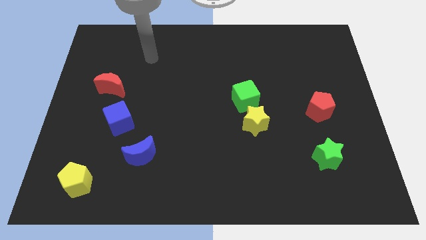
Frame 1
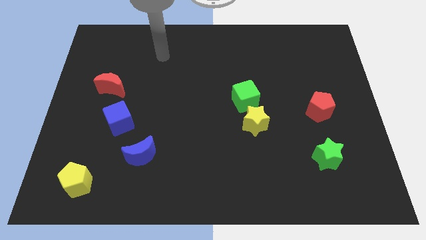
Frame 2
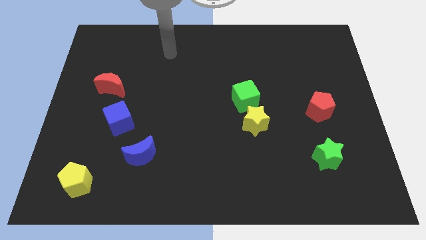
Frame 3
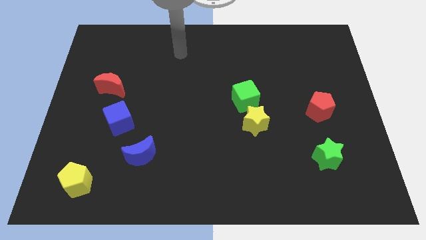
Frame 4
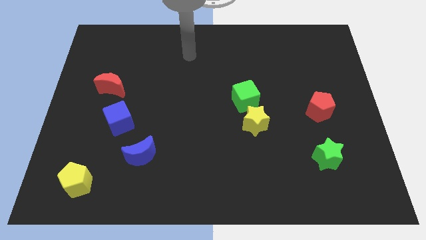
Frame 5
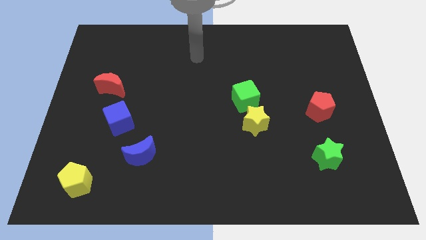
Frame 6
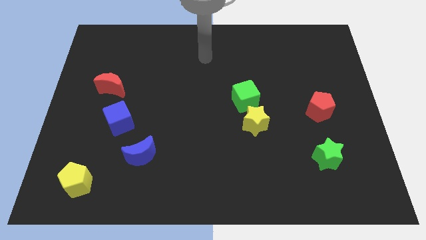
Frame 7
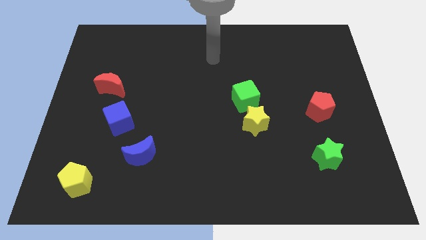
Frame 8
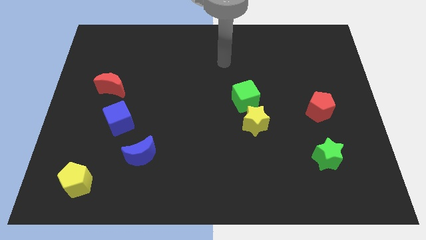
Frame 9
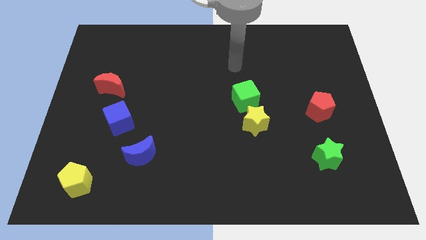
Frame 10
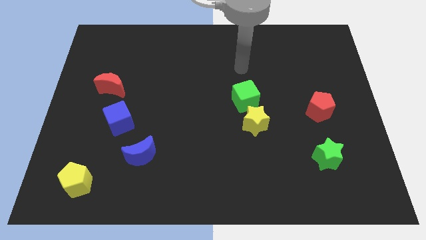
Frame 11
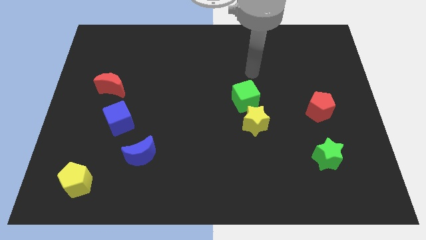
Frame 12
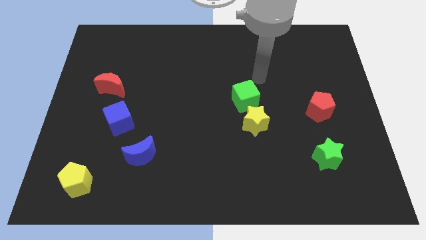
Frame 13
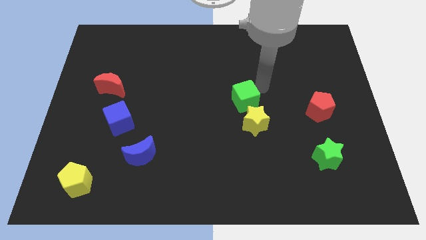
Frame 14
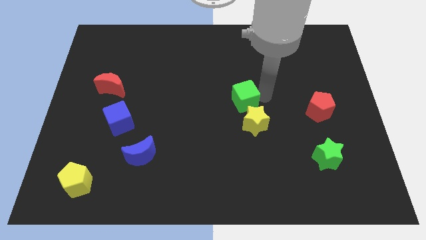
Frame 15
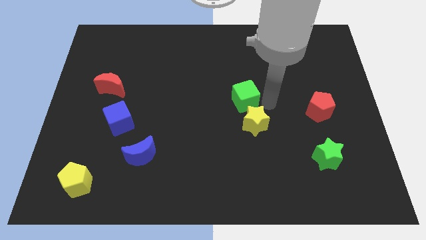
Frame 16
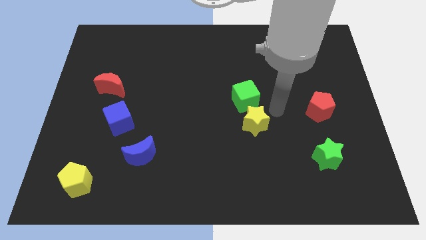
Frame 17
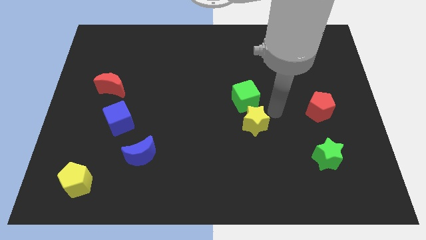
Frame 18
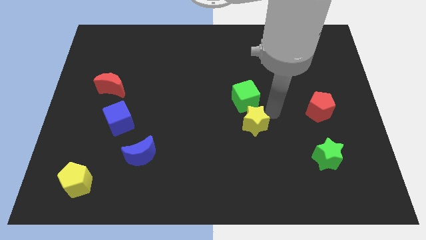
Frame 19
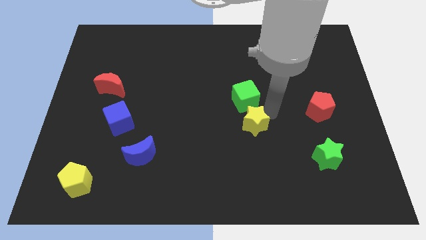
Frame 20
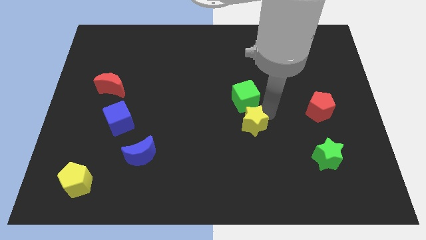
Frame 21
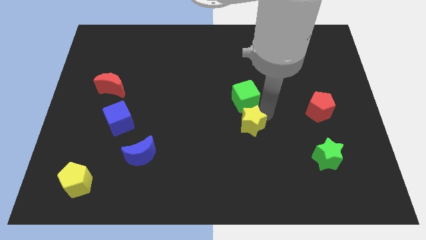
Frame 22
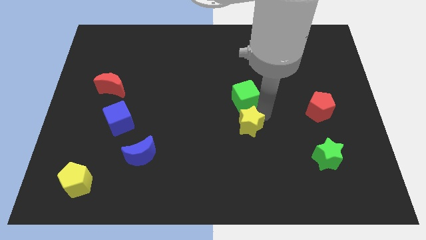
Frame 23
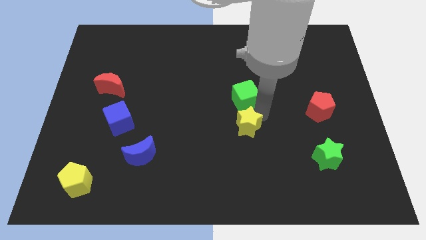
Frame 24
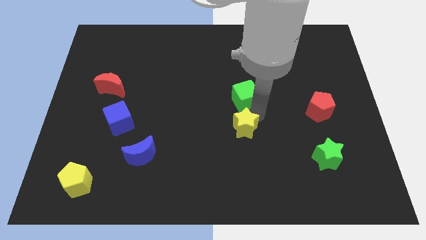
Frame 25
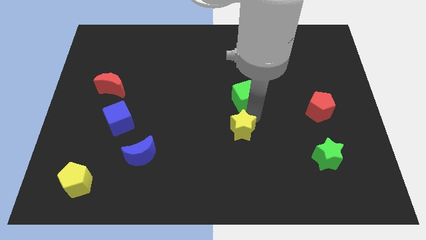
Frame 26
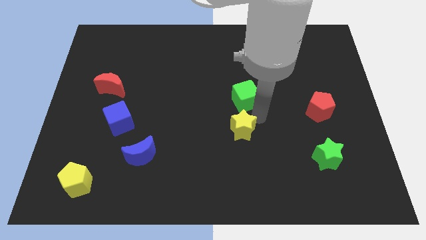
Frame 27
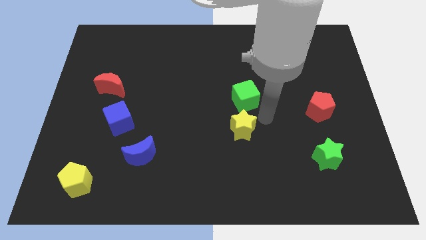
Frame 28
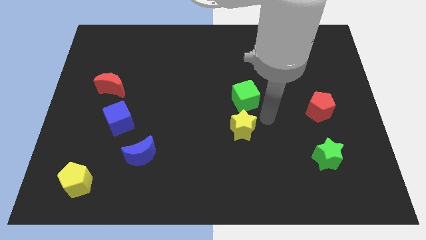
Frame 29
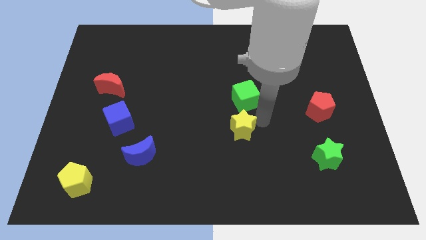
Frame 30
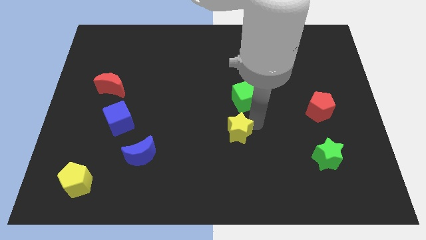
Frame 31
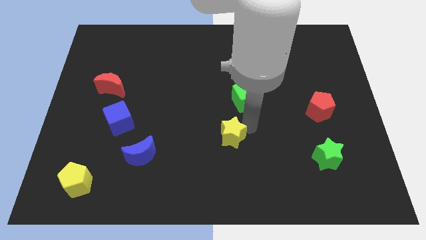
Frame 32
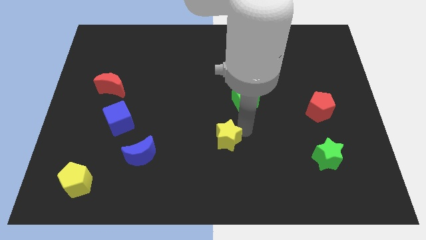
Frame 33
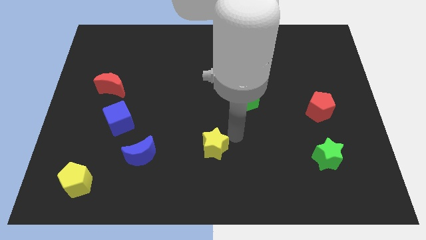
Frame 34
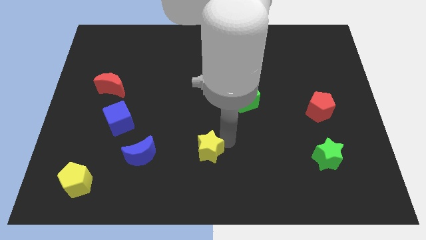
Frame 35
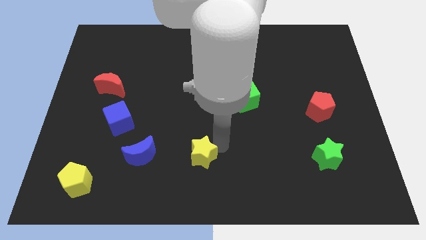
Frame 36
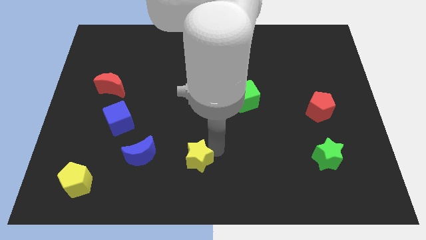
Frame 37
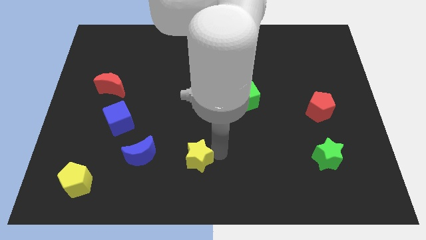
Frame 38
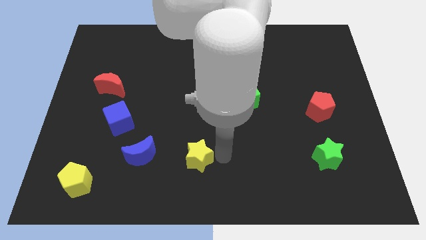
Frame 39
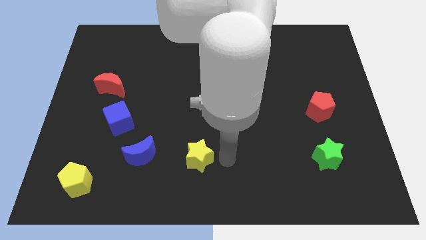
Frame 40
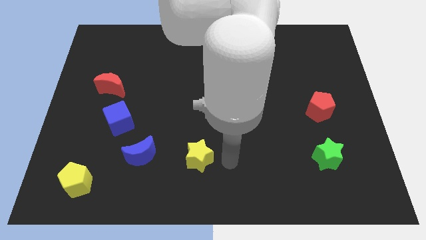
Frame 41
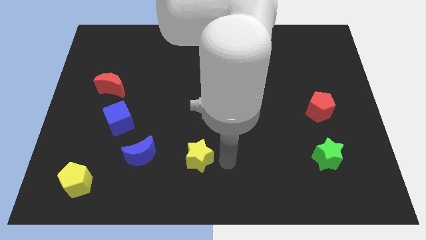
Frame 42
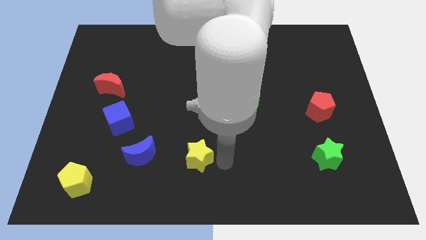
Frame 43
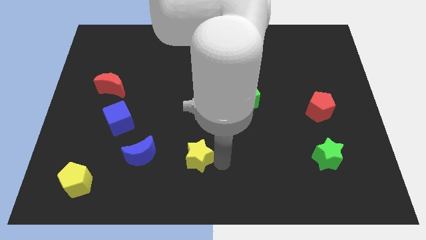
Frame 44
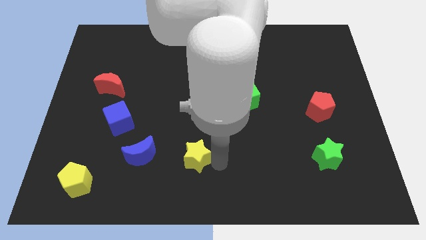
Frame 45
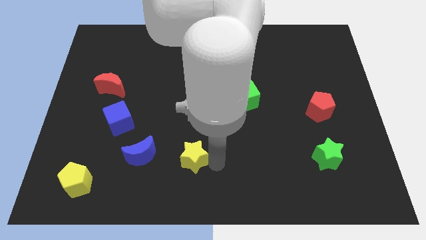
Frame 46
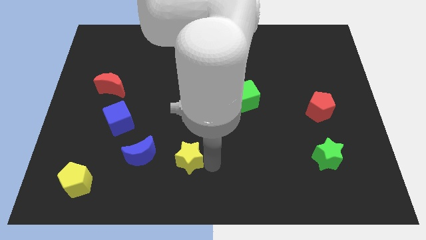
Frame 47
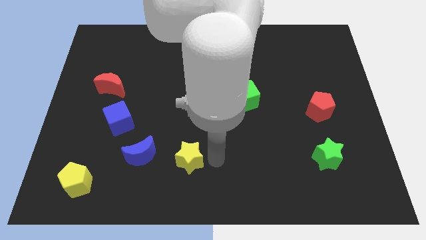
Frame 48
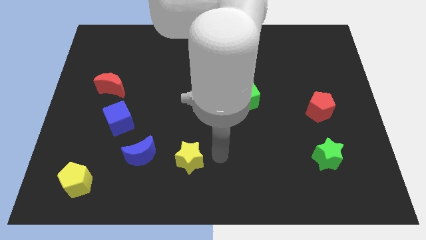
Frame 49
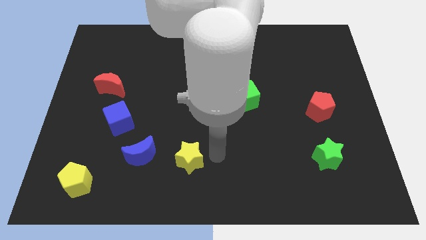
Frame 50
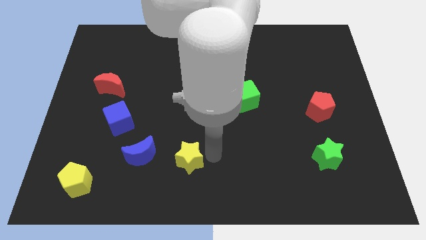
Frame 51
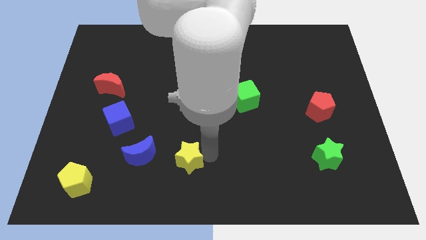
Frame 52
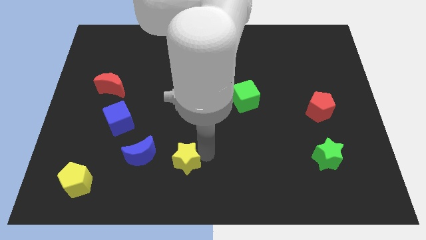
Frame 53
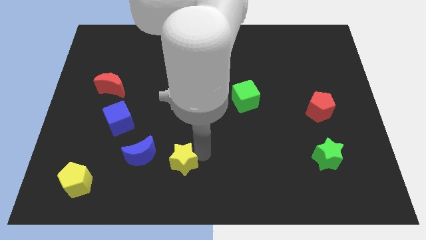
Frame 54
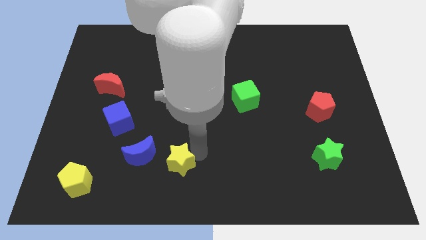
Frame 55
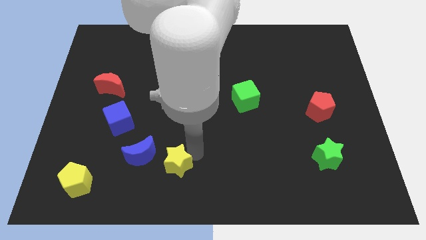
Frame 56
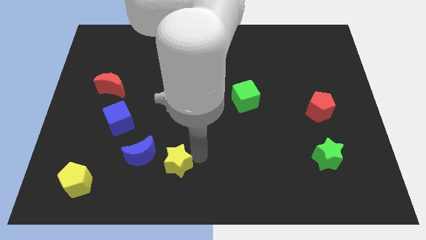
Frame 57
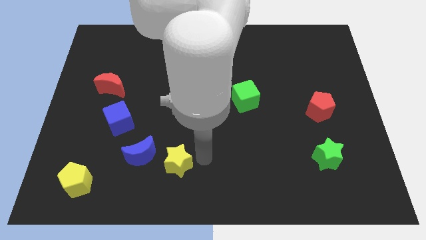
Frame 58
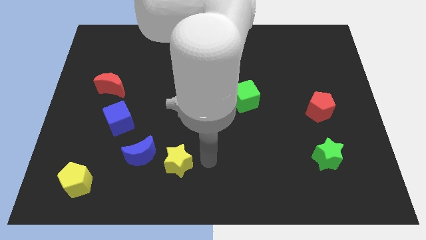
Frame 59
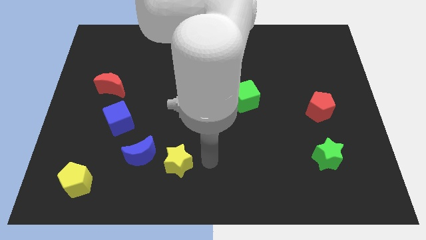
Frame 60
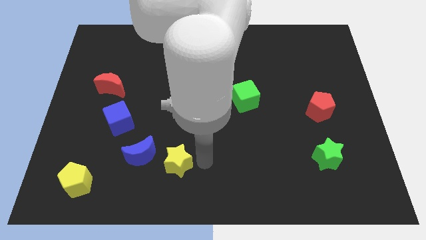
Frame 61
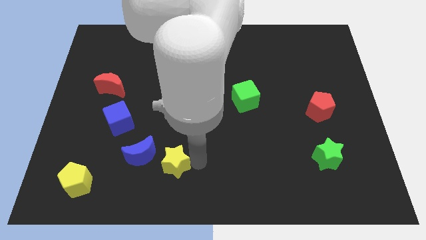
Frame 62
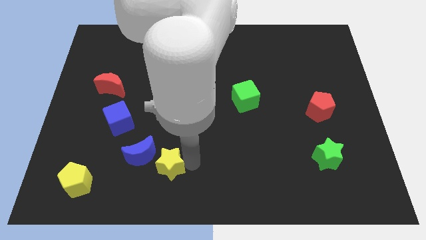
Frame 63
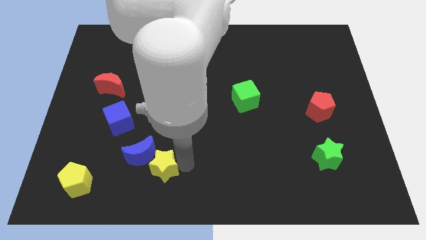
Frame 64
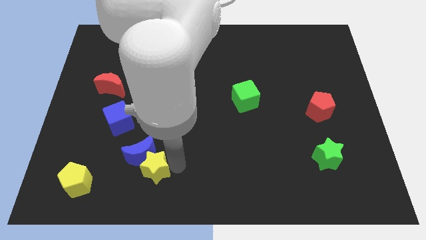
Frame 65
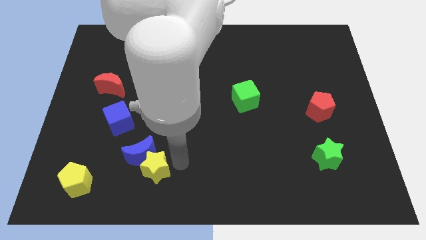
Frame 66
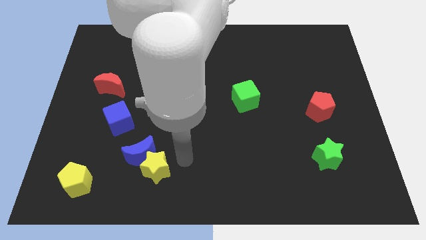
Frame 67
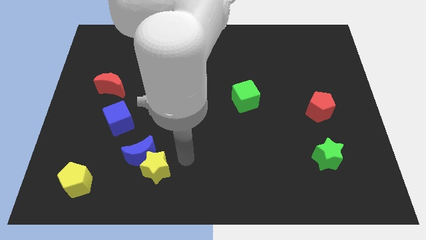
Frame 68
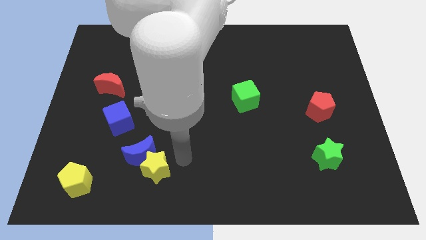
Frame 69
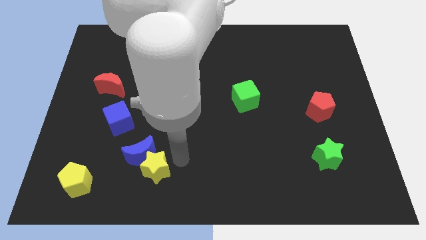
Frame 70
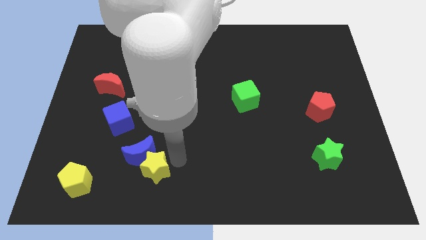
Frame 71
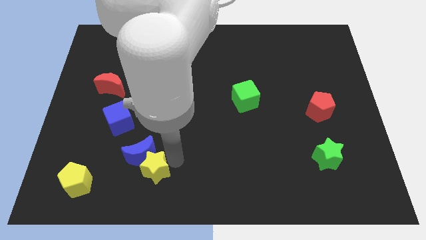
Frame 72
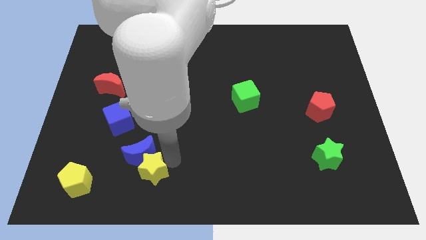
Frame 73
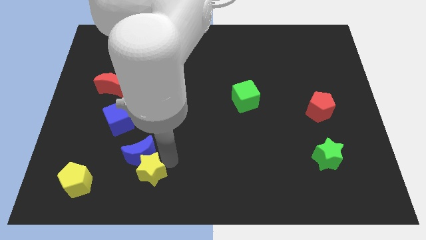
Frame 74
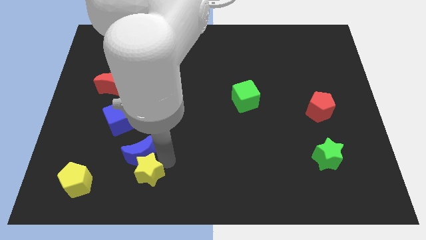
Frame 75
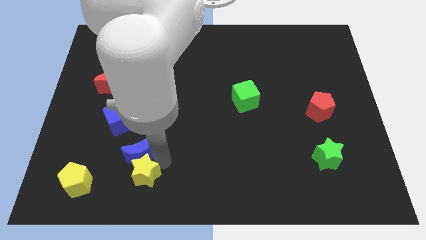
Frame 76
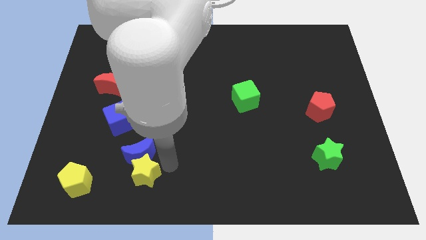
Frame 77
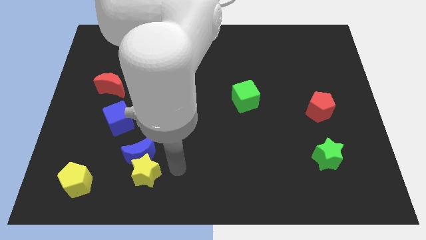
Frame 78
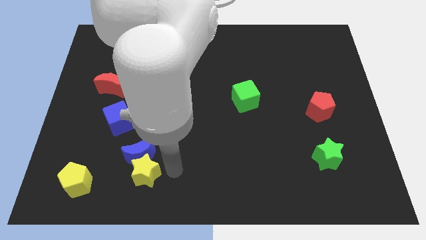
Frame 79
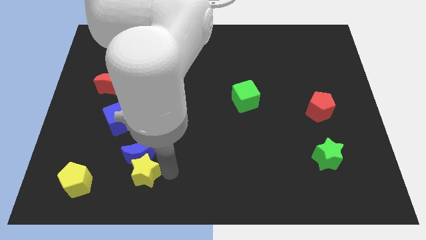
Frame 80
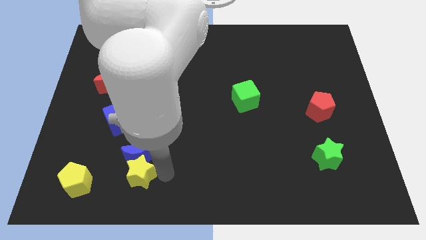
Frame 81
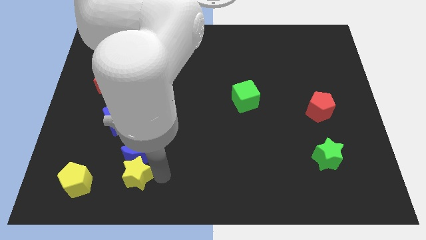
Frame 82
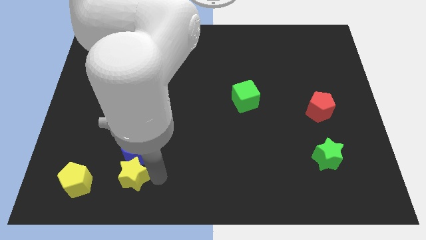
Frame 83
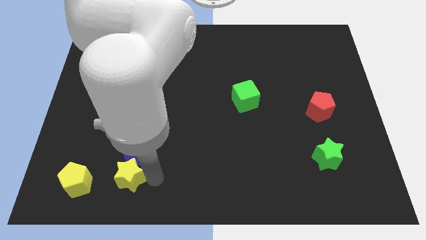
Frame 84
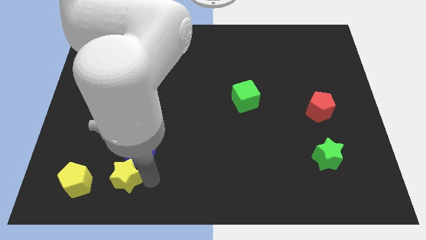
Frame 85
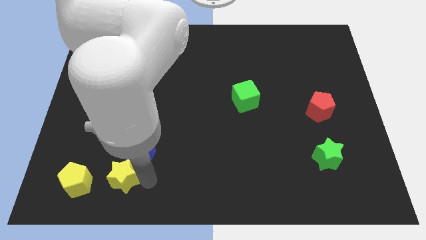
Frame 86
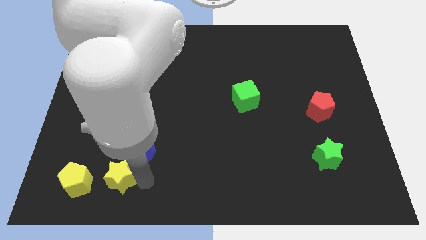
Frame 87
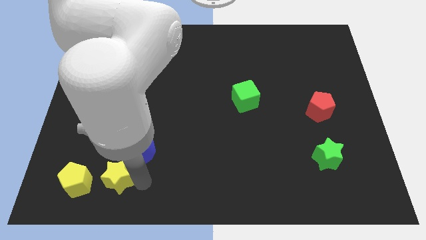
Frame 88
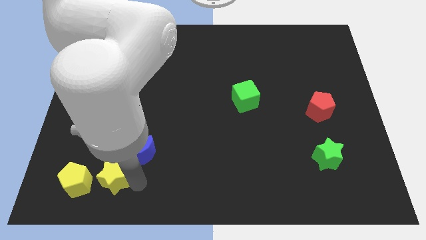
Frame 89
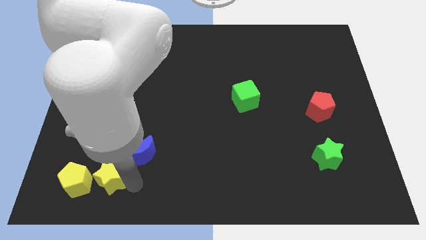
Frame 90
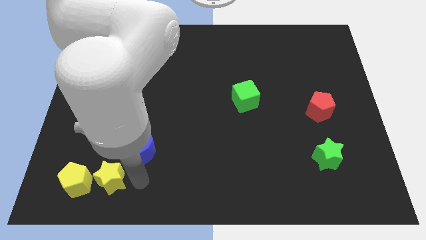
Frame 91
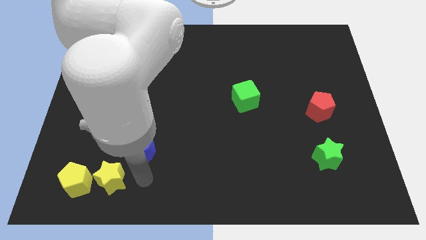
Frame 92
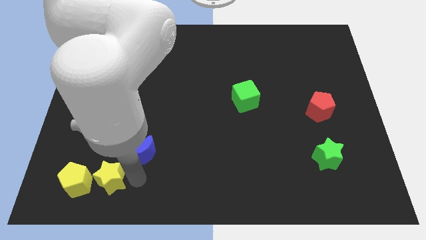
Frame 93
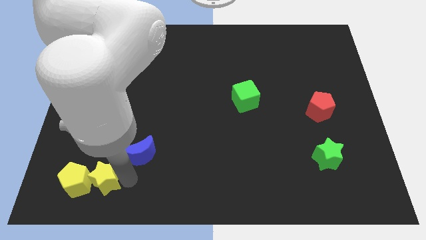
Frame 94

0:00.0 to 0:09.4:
move the yellow star towards the yellow pentagon
